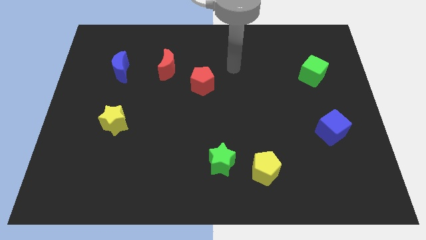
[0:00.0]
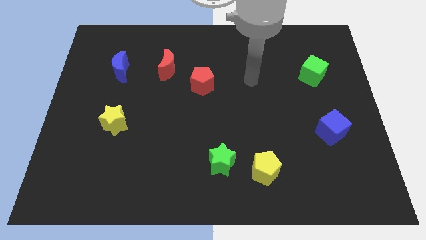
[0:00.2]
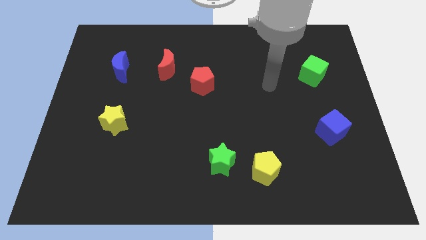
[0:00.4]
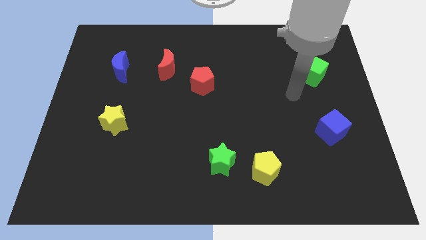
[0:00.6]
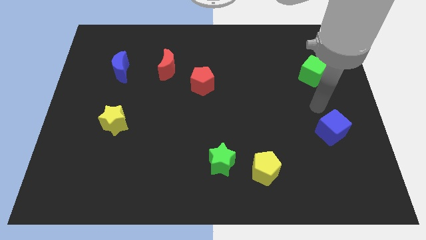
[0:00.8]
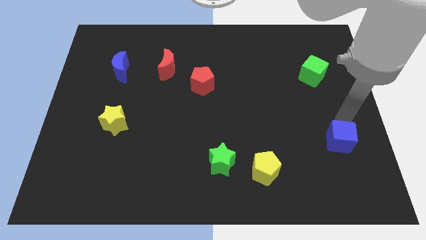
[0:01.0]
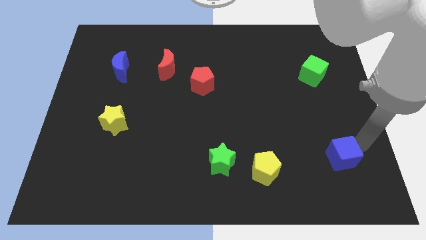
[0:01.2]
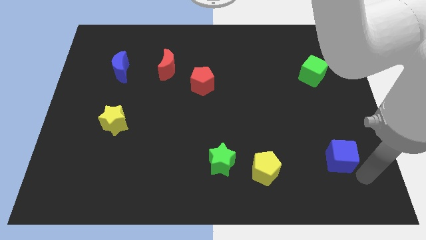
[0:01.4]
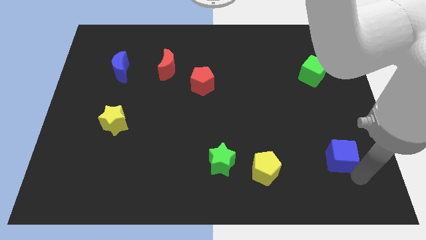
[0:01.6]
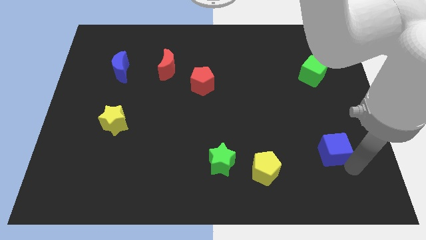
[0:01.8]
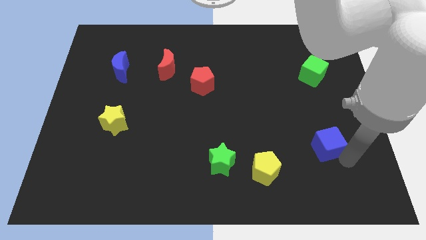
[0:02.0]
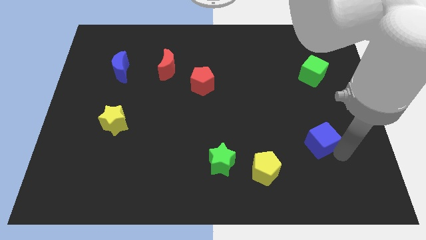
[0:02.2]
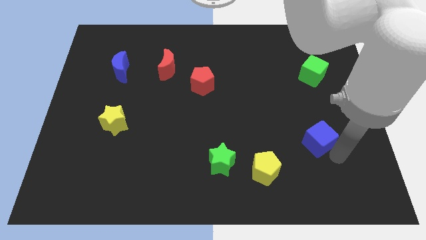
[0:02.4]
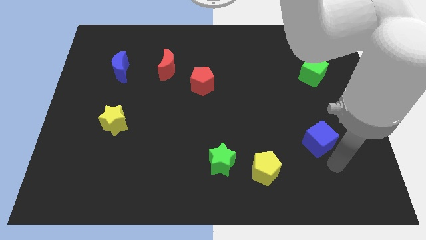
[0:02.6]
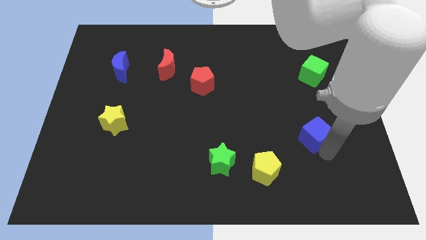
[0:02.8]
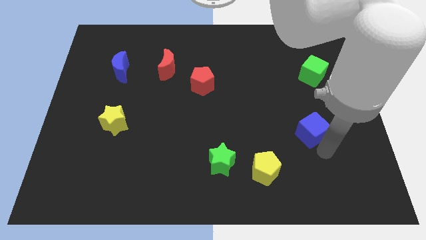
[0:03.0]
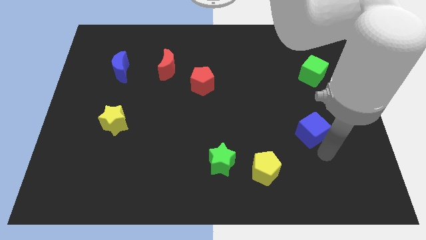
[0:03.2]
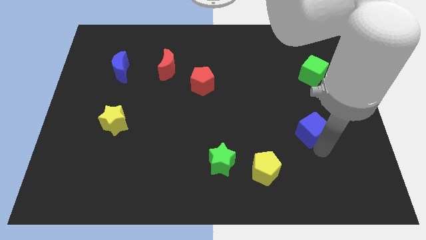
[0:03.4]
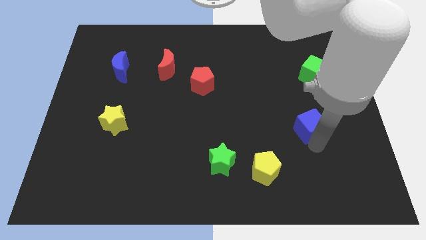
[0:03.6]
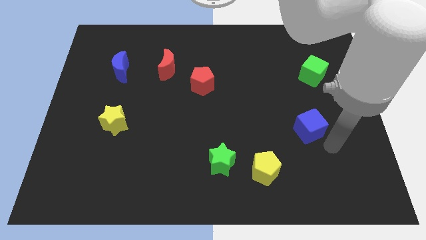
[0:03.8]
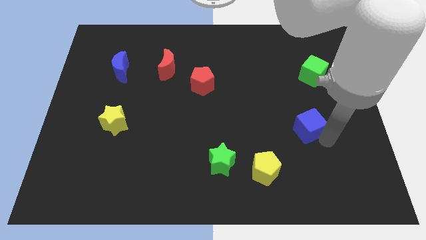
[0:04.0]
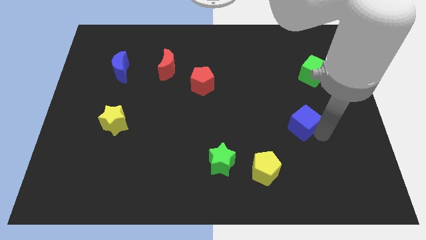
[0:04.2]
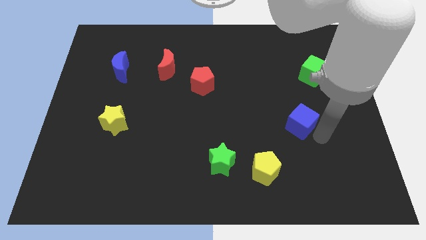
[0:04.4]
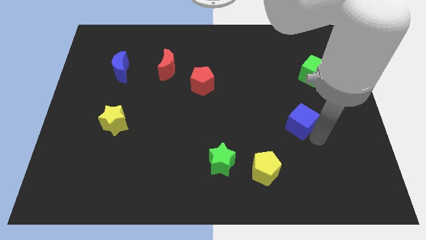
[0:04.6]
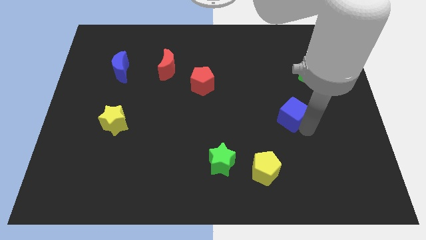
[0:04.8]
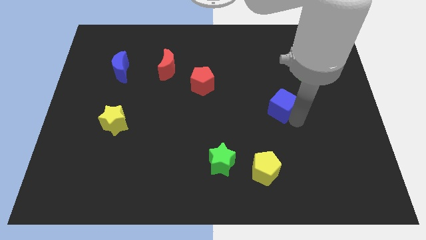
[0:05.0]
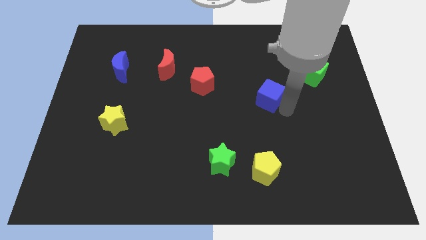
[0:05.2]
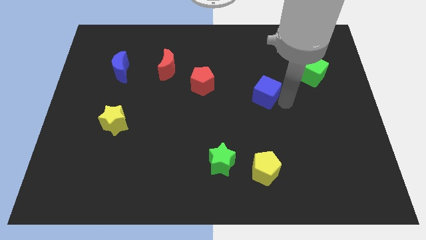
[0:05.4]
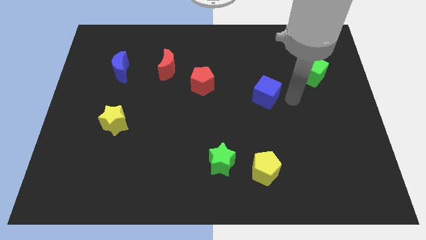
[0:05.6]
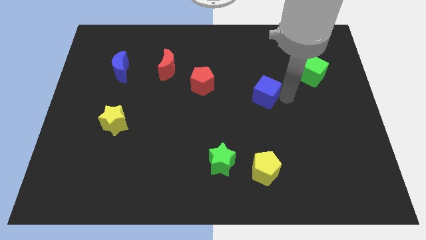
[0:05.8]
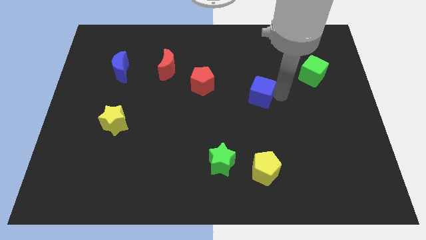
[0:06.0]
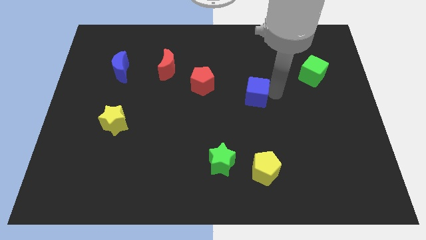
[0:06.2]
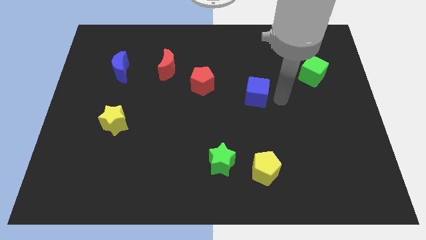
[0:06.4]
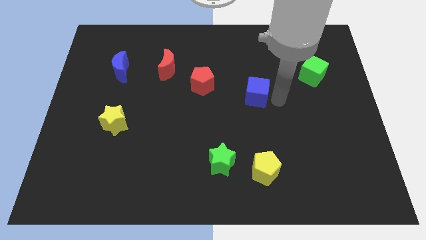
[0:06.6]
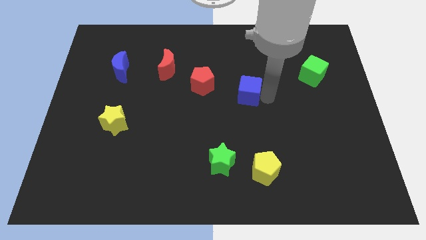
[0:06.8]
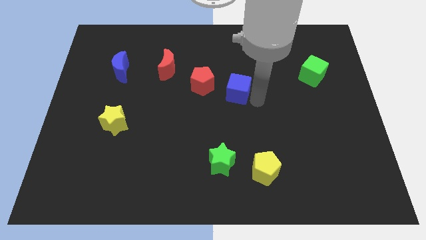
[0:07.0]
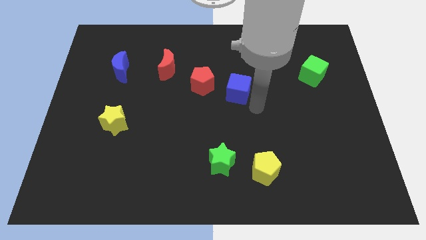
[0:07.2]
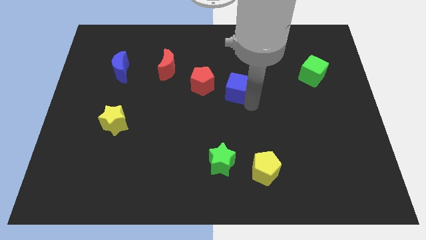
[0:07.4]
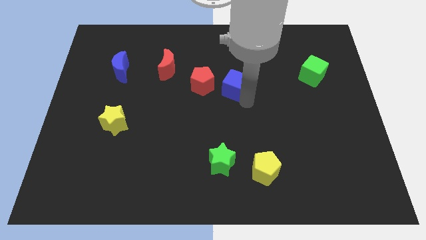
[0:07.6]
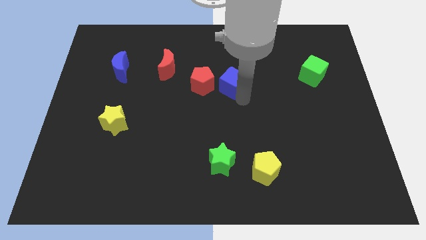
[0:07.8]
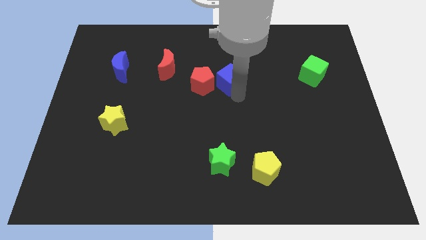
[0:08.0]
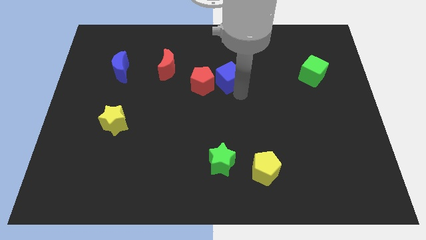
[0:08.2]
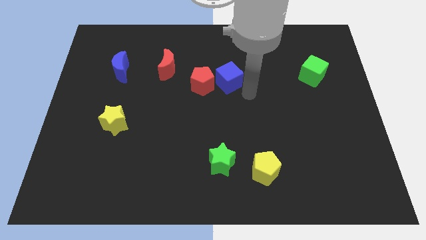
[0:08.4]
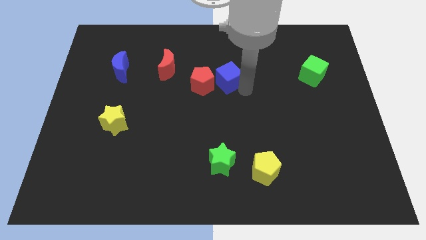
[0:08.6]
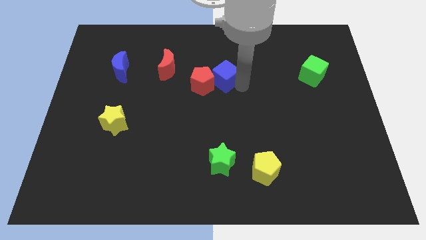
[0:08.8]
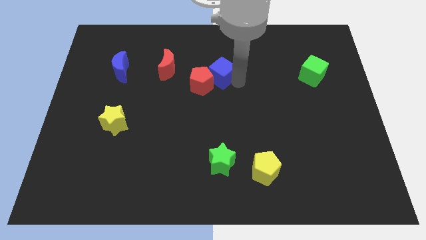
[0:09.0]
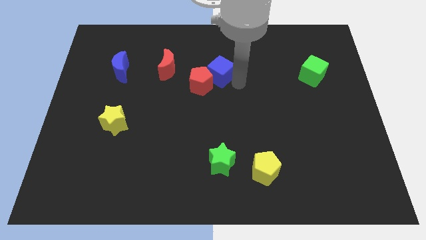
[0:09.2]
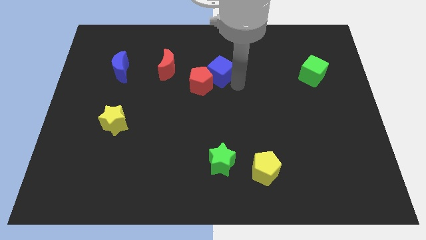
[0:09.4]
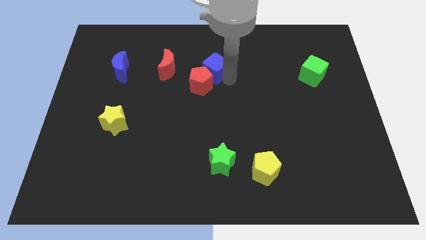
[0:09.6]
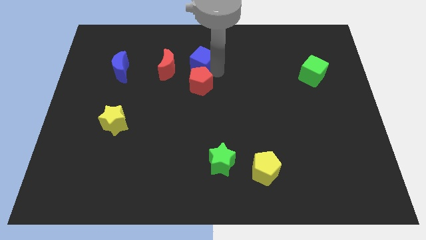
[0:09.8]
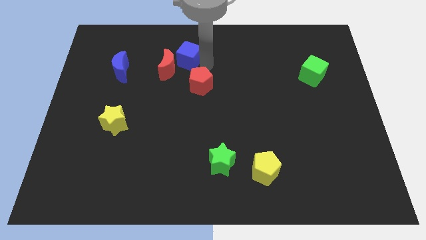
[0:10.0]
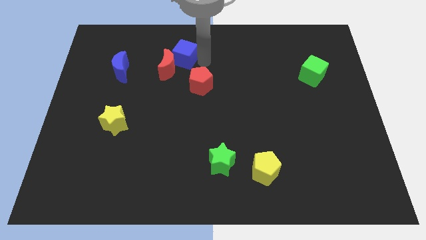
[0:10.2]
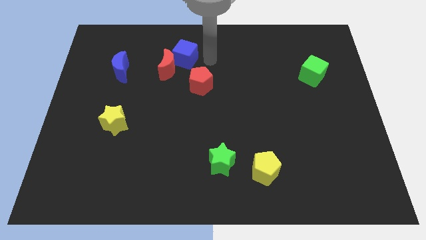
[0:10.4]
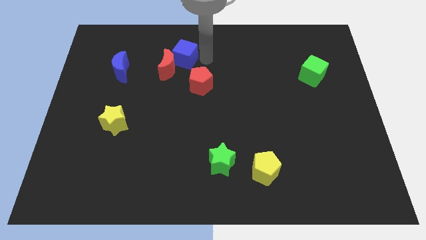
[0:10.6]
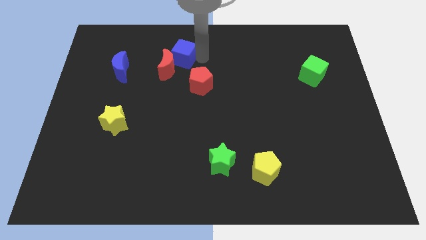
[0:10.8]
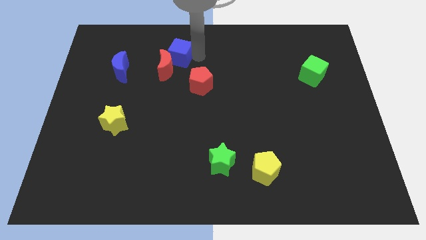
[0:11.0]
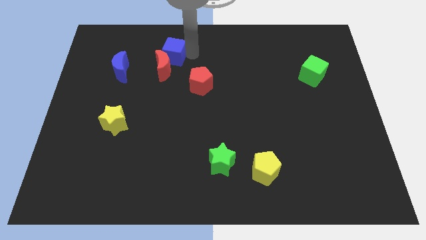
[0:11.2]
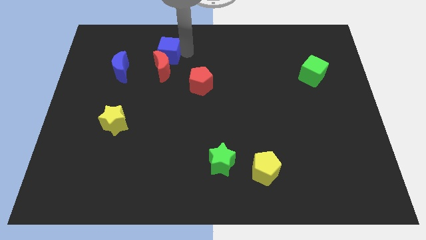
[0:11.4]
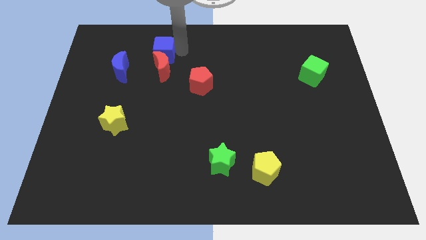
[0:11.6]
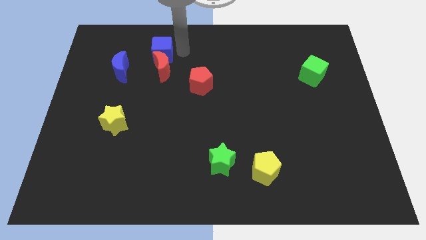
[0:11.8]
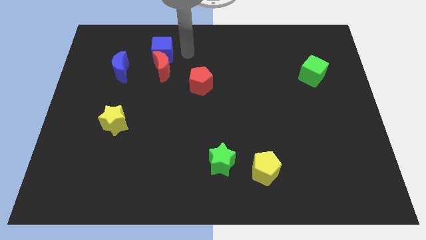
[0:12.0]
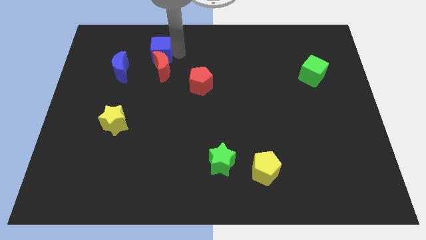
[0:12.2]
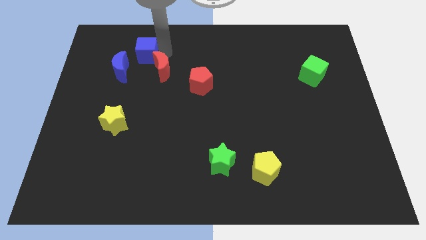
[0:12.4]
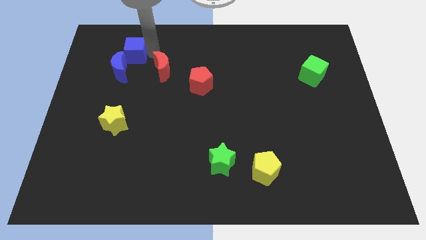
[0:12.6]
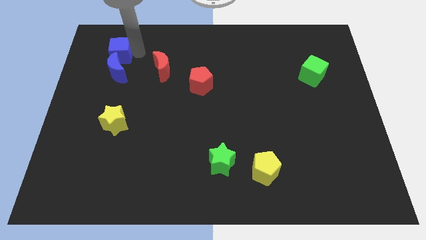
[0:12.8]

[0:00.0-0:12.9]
put the blue cube diagonally up and to the left of the blue moon
